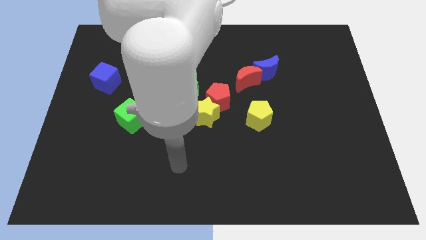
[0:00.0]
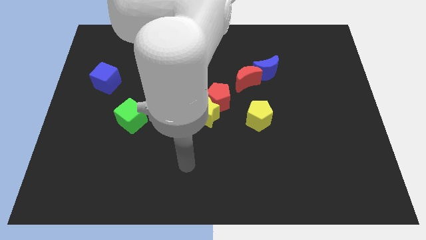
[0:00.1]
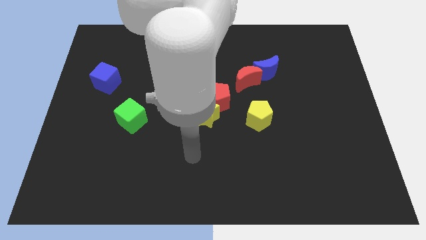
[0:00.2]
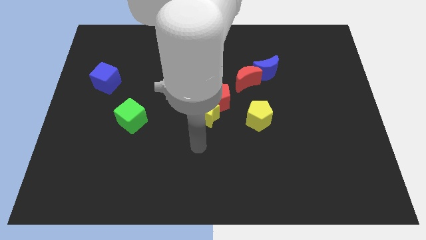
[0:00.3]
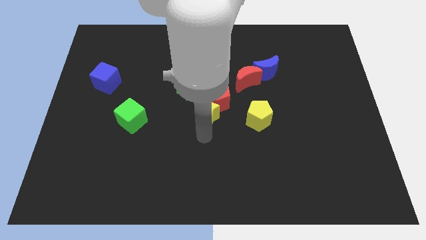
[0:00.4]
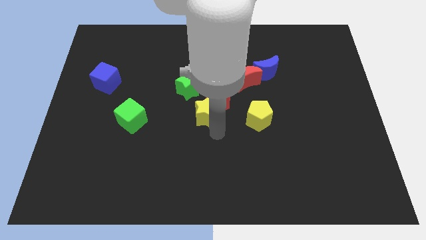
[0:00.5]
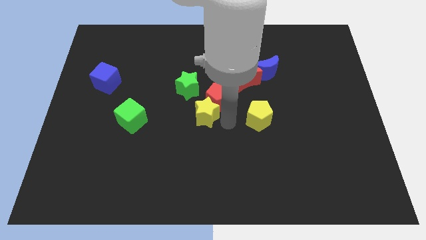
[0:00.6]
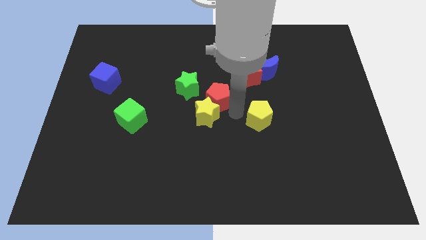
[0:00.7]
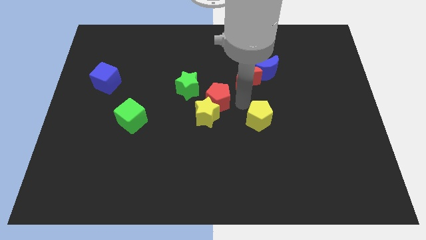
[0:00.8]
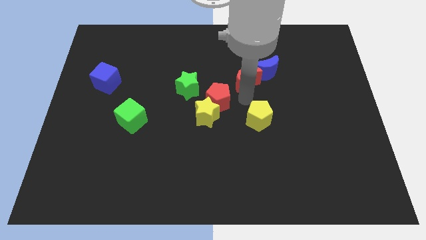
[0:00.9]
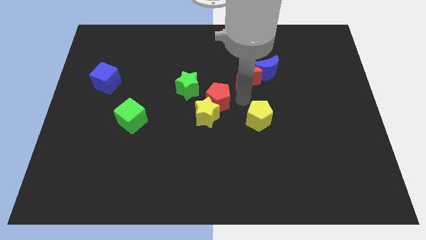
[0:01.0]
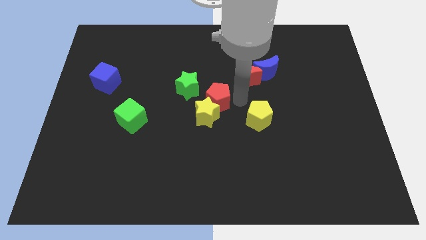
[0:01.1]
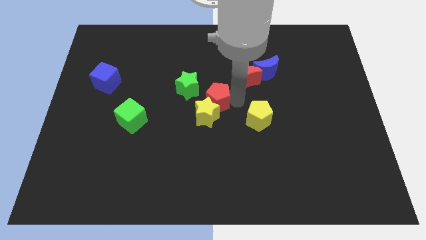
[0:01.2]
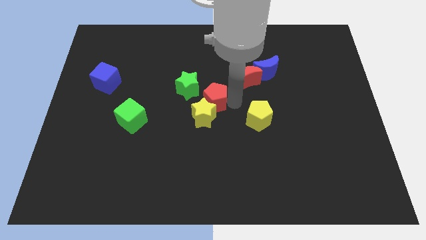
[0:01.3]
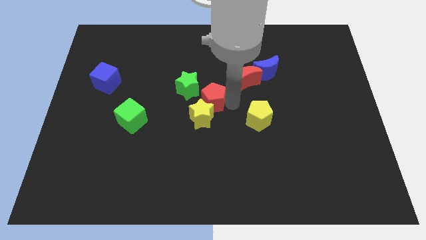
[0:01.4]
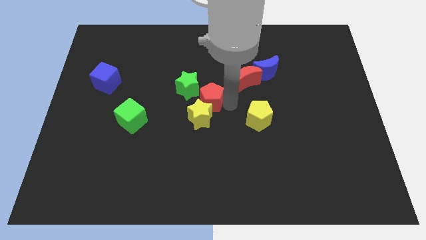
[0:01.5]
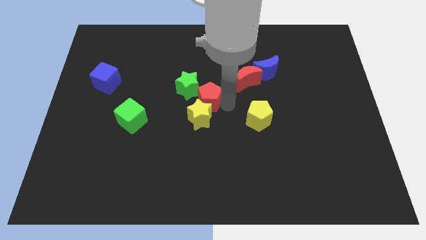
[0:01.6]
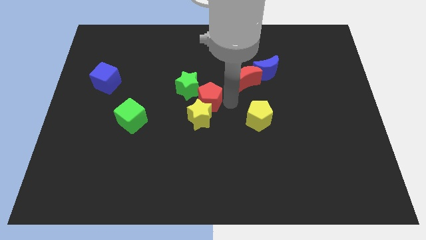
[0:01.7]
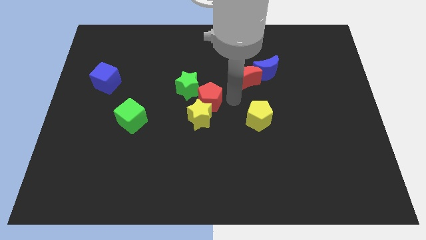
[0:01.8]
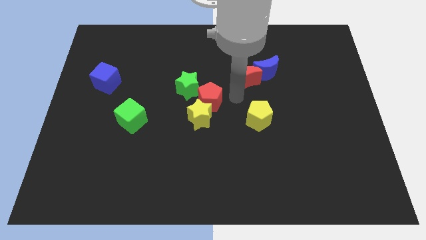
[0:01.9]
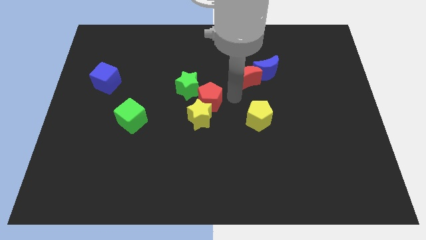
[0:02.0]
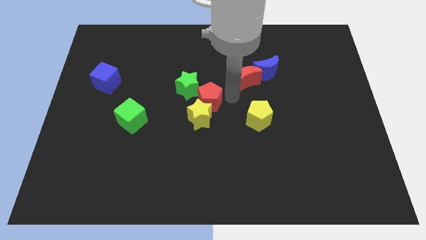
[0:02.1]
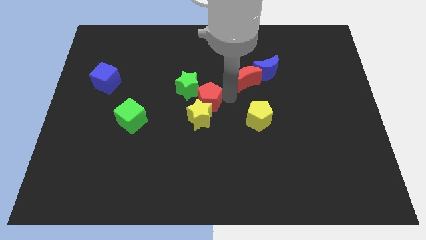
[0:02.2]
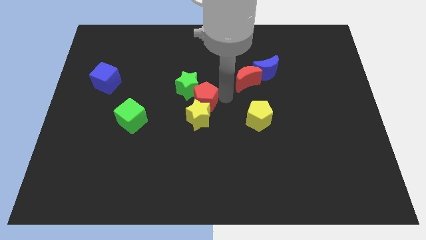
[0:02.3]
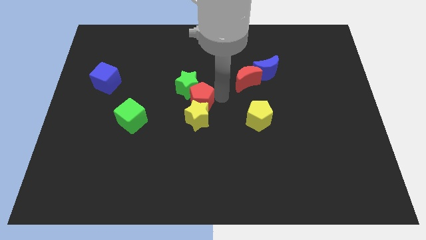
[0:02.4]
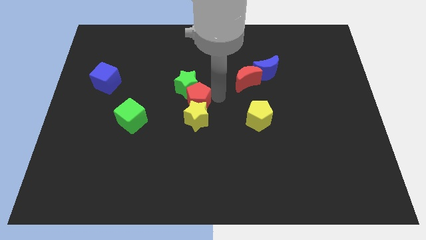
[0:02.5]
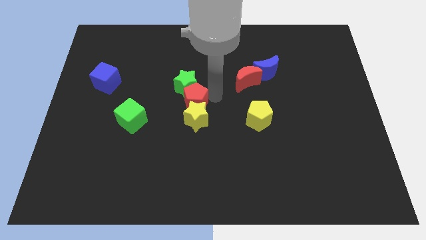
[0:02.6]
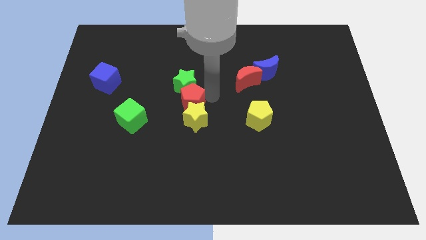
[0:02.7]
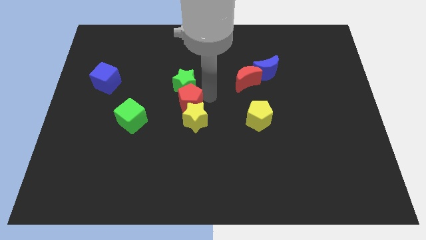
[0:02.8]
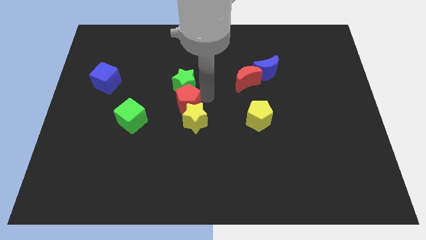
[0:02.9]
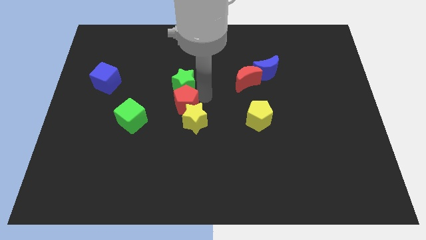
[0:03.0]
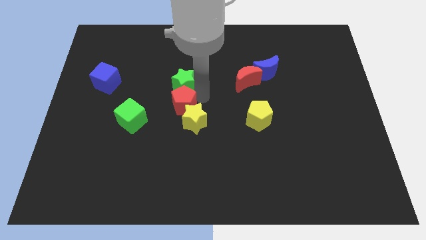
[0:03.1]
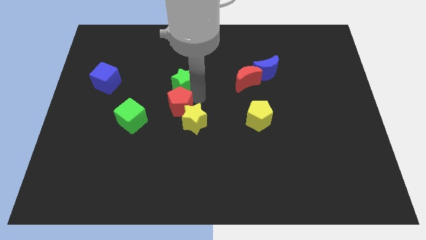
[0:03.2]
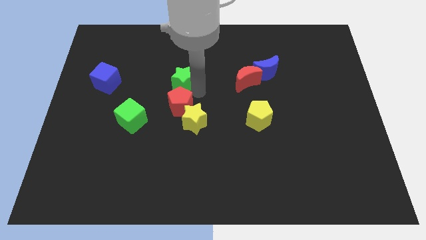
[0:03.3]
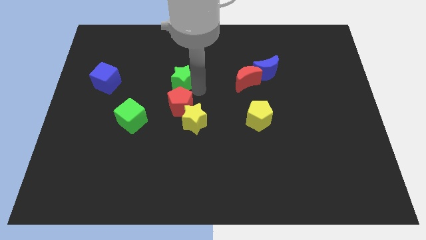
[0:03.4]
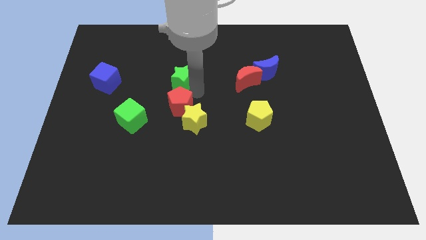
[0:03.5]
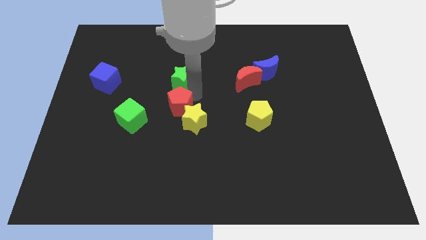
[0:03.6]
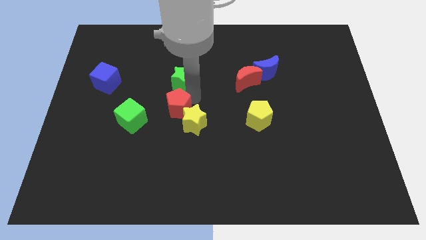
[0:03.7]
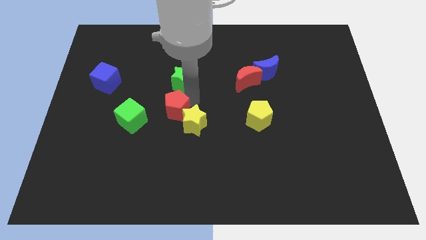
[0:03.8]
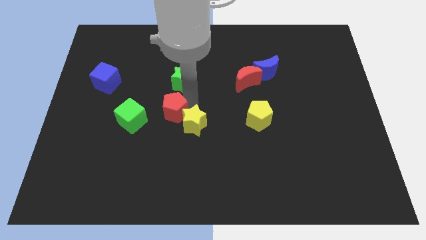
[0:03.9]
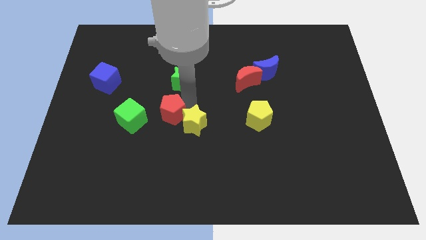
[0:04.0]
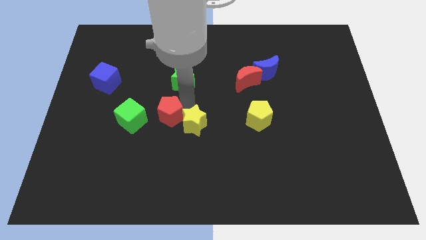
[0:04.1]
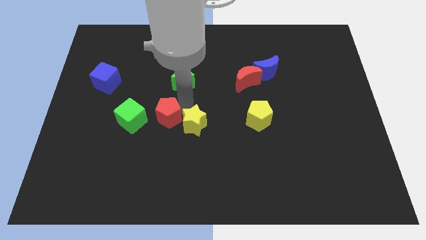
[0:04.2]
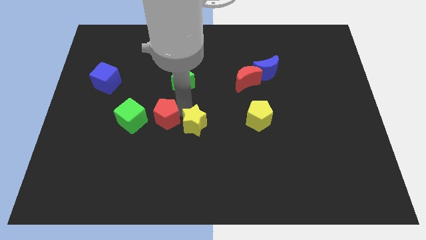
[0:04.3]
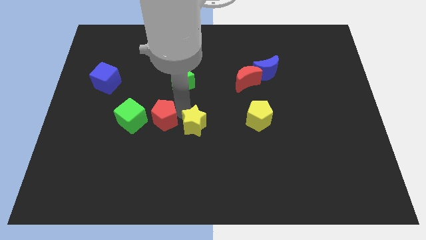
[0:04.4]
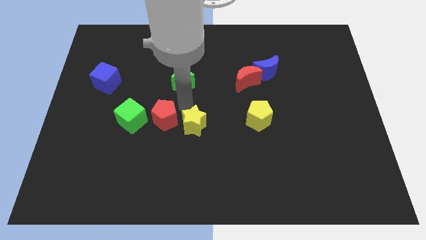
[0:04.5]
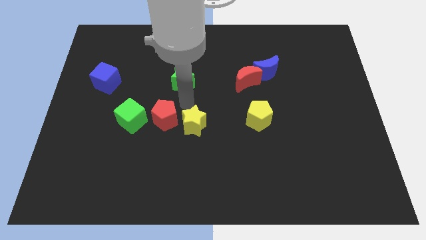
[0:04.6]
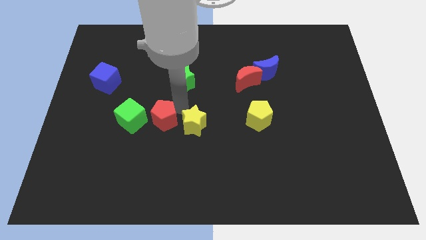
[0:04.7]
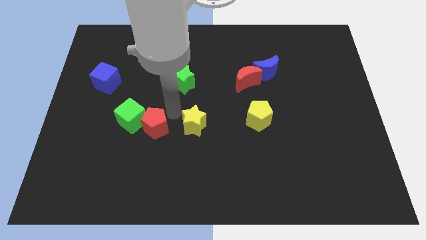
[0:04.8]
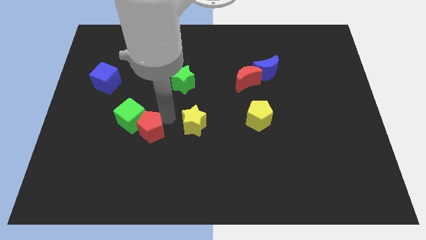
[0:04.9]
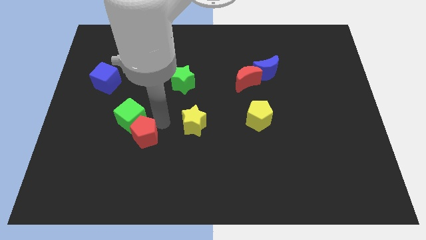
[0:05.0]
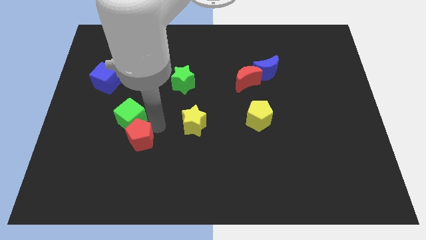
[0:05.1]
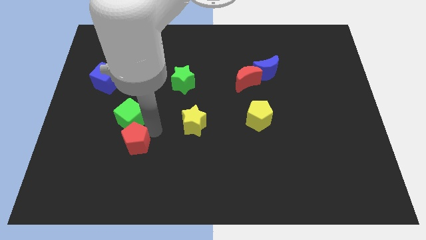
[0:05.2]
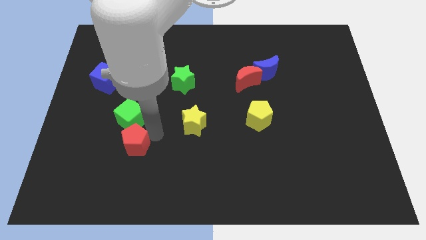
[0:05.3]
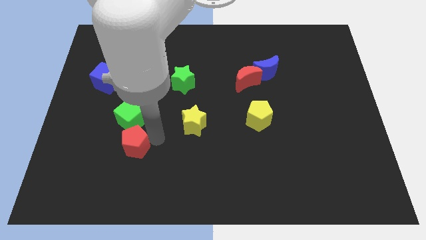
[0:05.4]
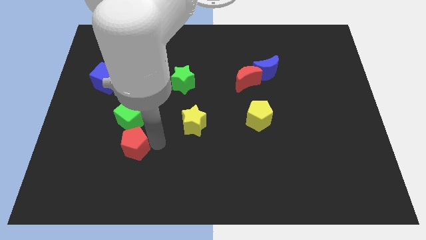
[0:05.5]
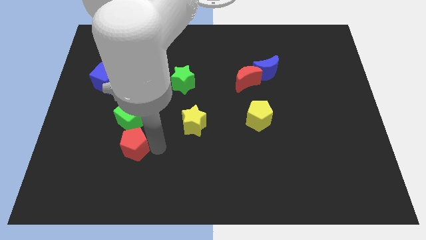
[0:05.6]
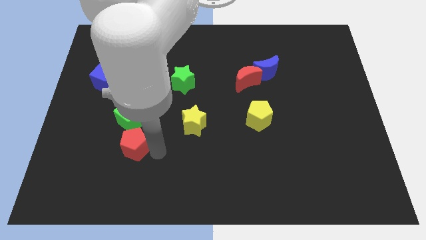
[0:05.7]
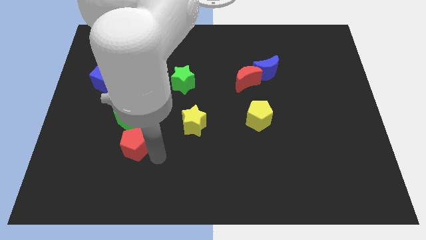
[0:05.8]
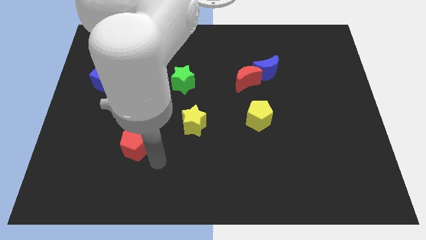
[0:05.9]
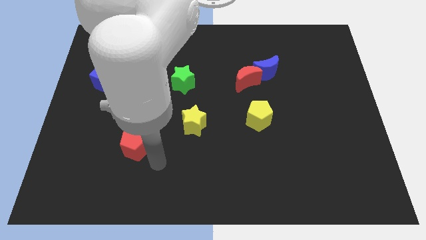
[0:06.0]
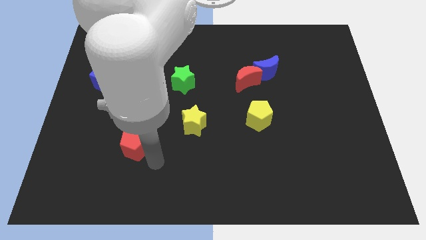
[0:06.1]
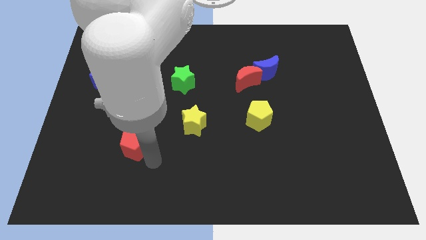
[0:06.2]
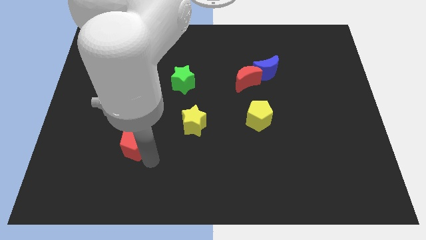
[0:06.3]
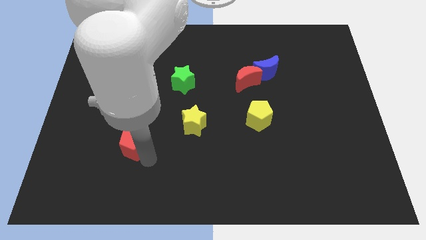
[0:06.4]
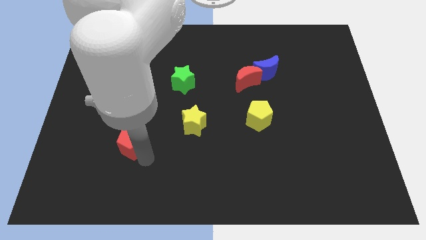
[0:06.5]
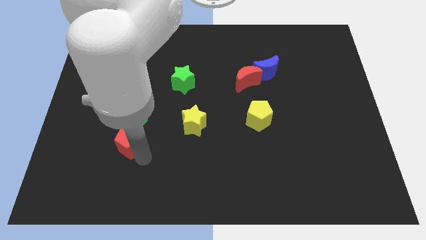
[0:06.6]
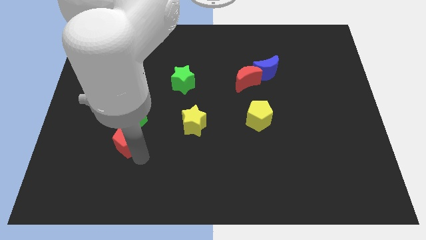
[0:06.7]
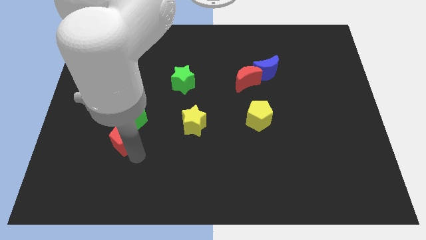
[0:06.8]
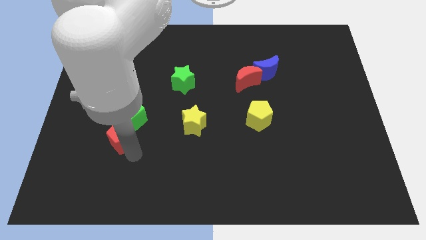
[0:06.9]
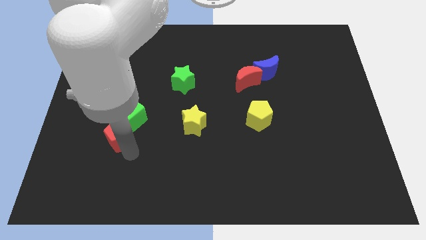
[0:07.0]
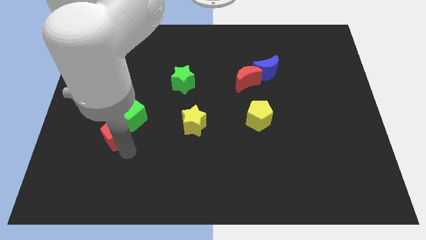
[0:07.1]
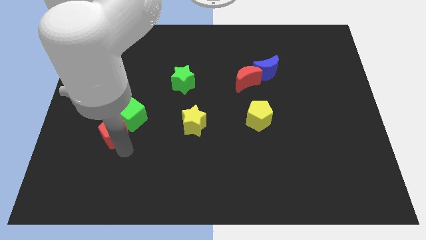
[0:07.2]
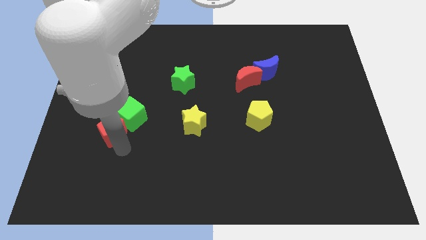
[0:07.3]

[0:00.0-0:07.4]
move the red pentagon left of the green cube
